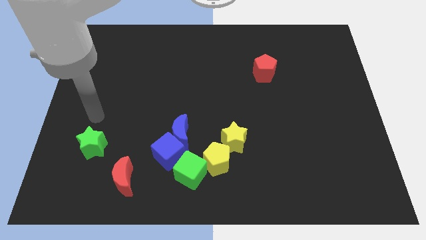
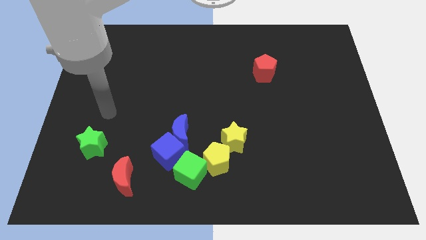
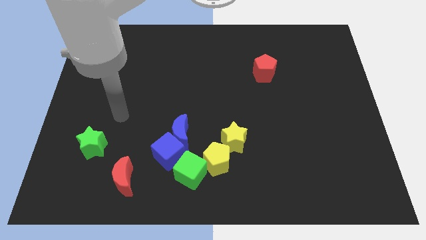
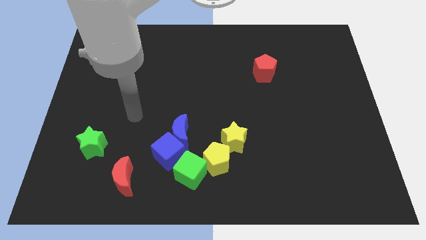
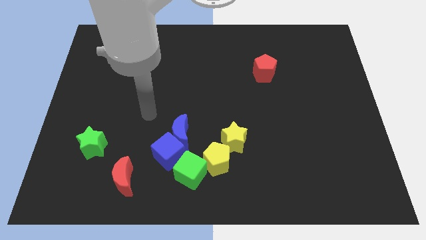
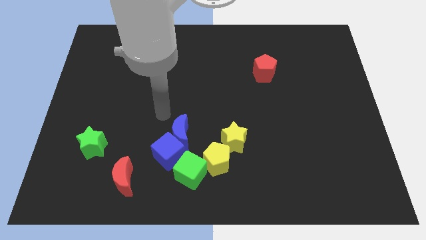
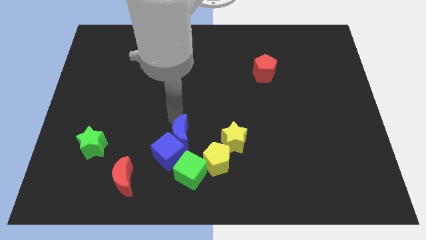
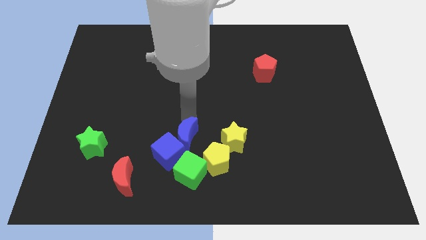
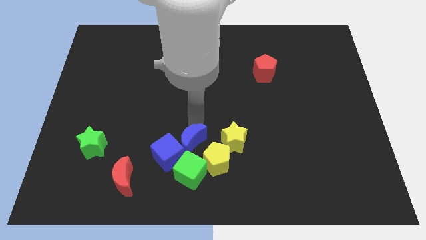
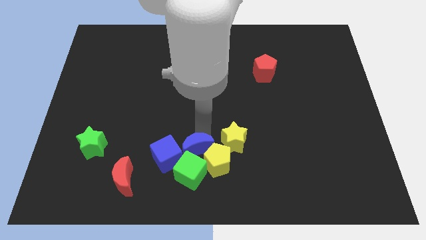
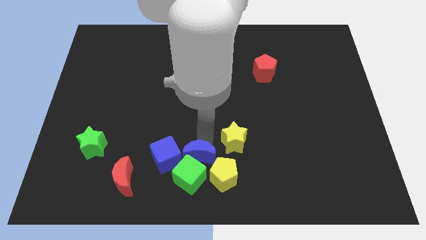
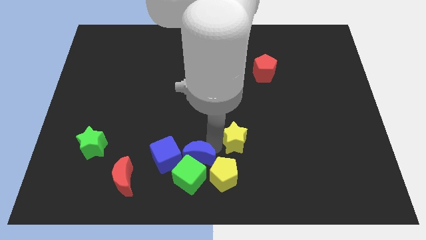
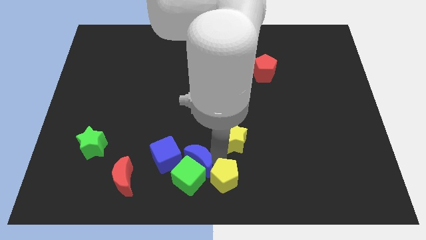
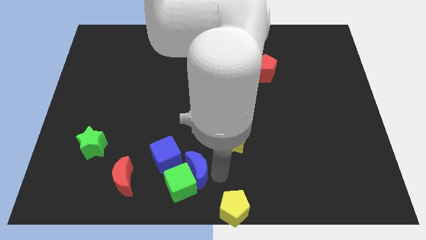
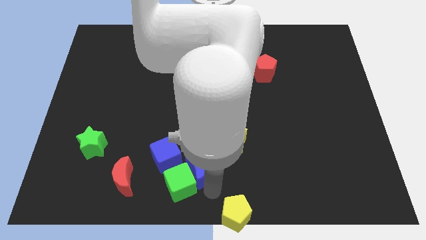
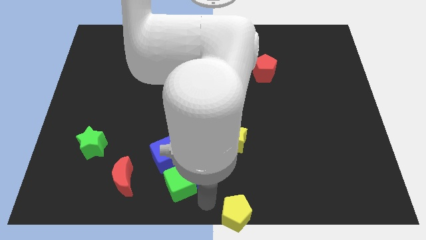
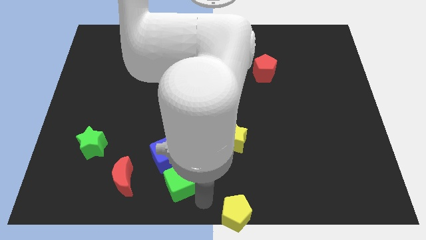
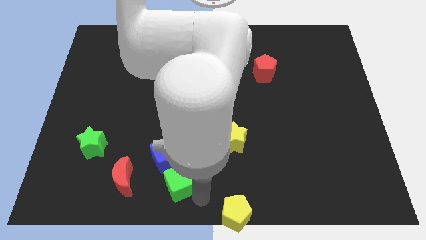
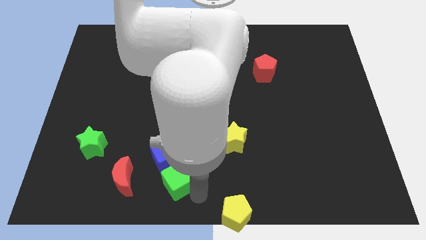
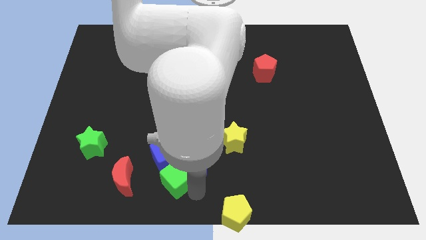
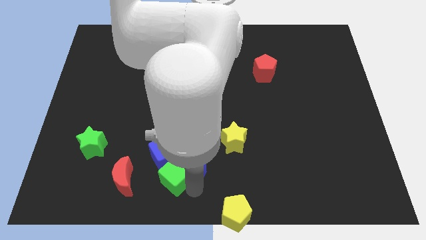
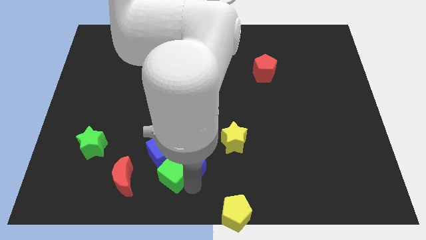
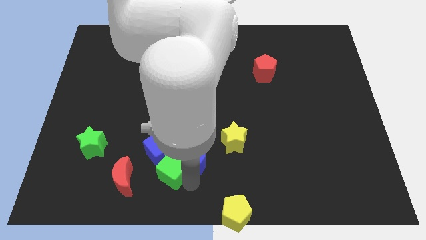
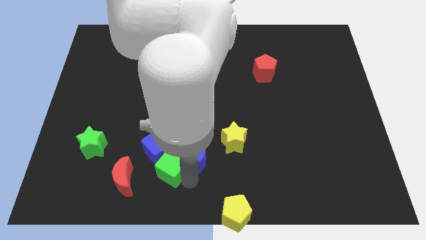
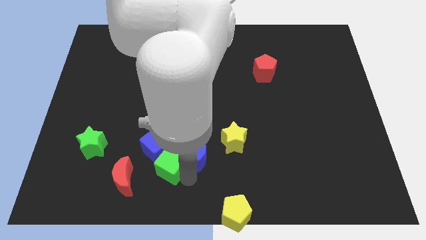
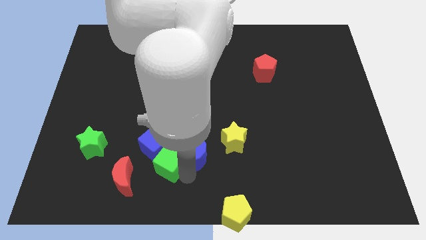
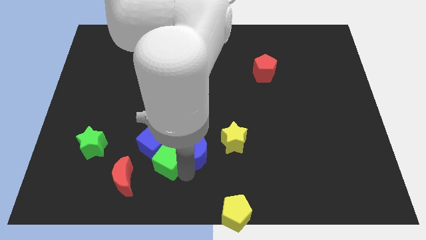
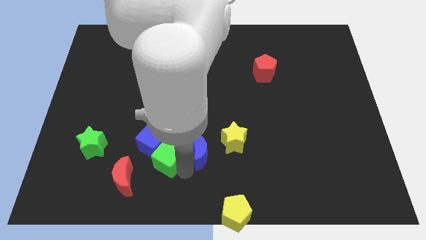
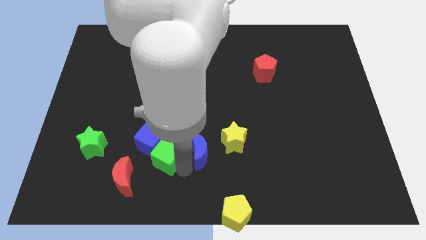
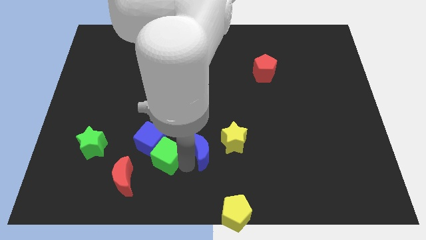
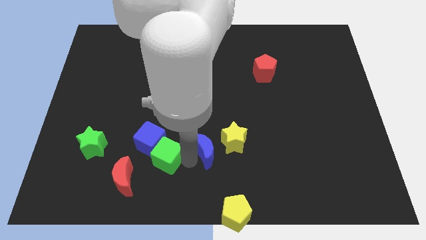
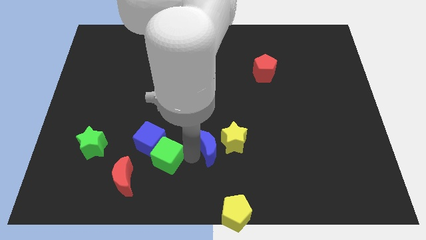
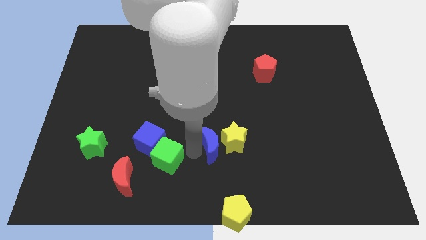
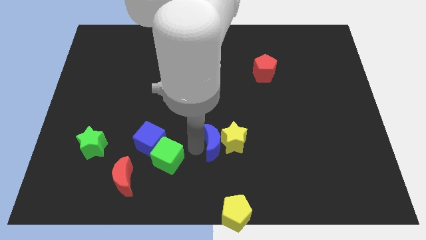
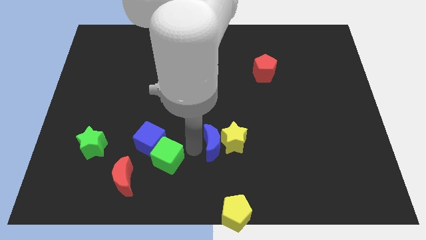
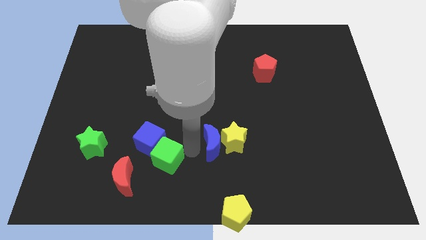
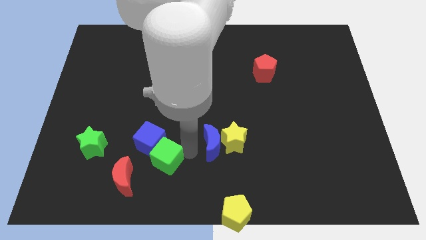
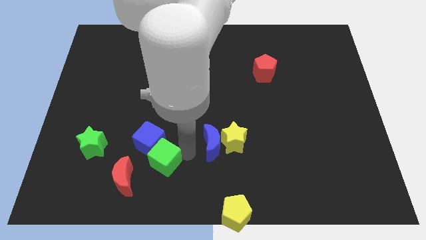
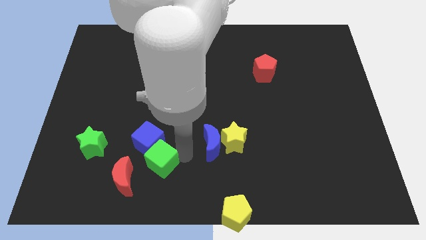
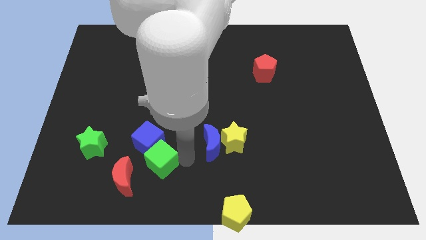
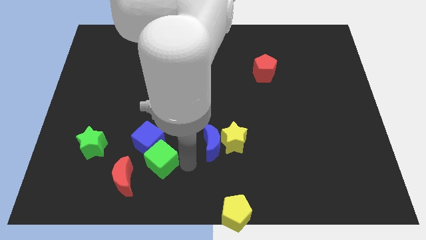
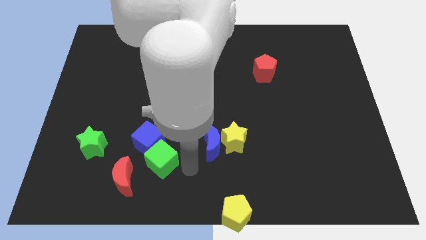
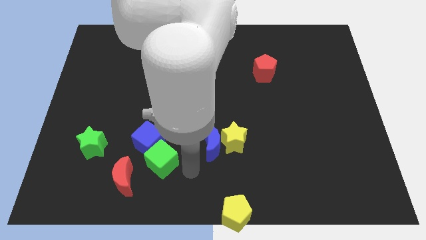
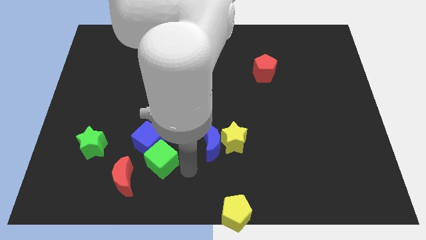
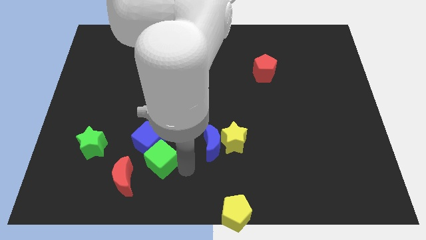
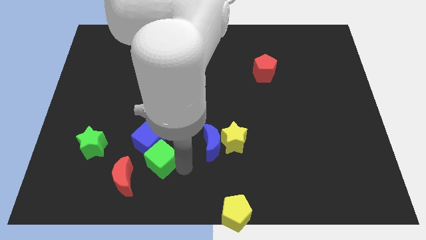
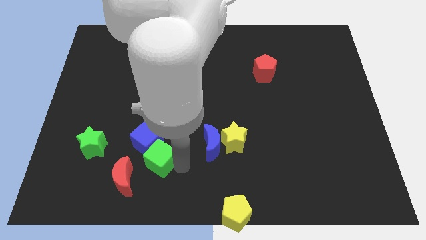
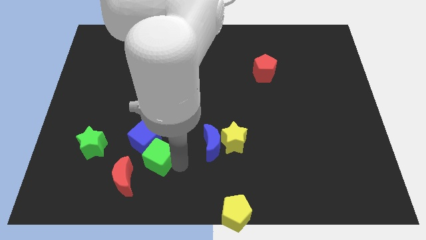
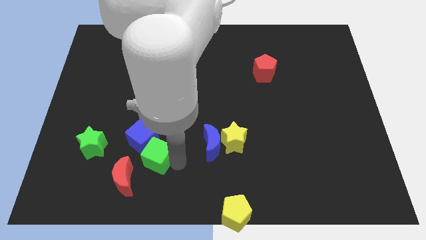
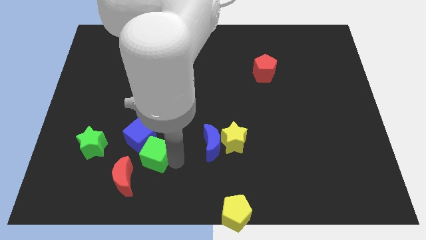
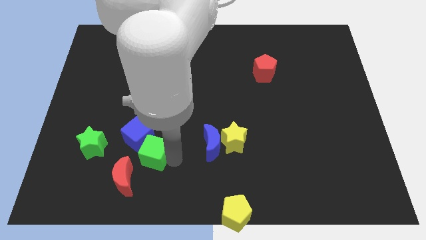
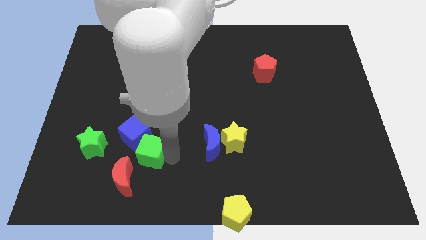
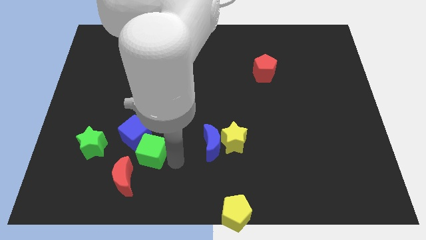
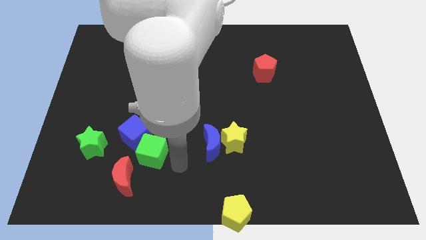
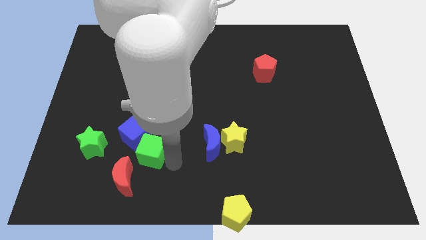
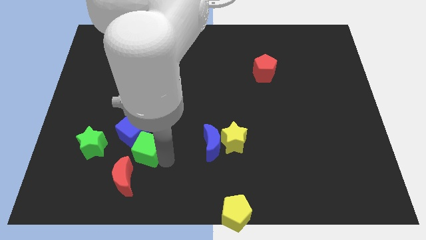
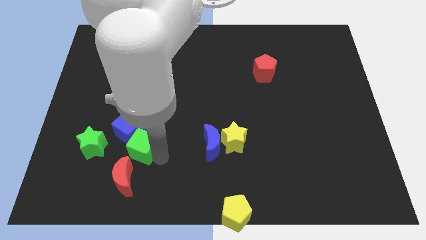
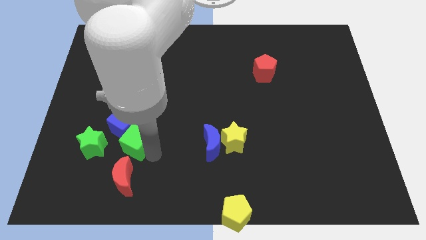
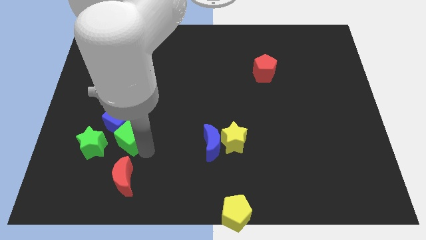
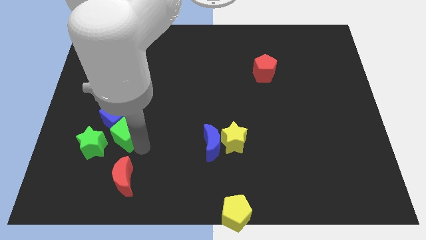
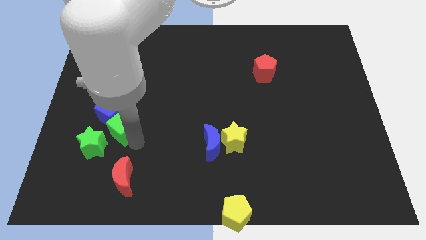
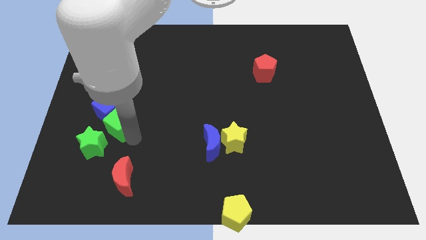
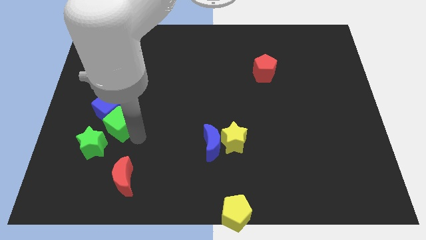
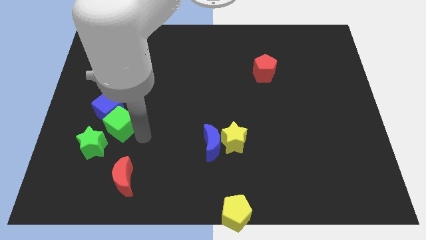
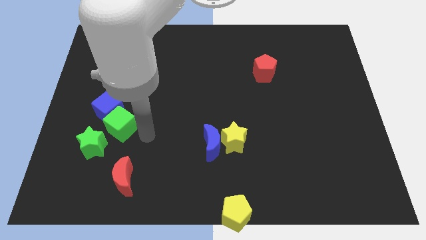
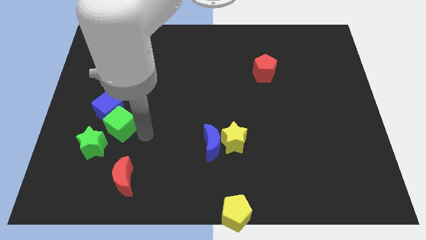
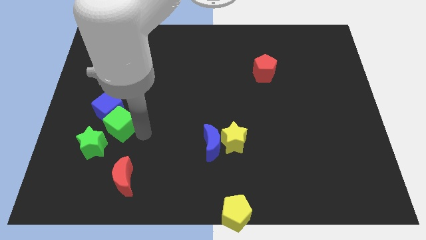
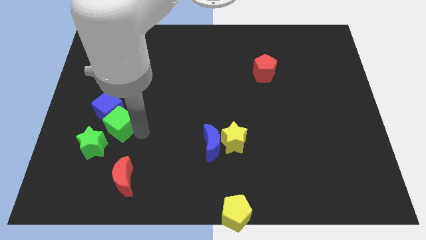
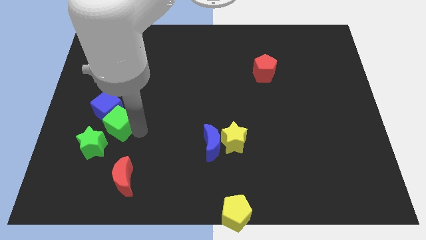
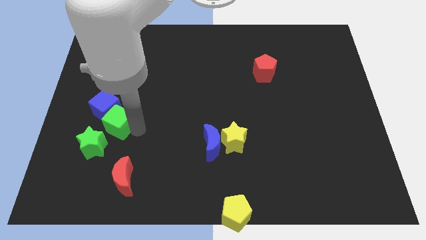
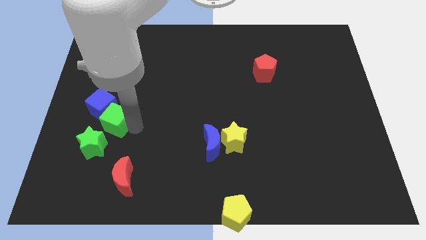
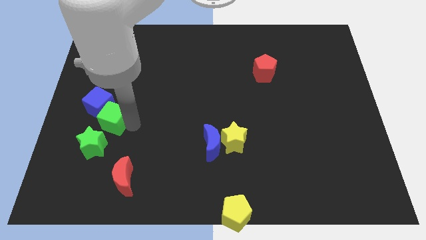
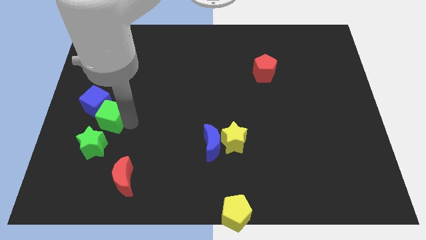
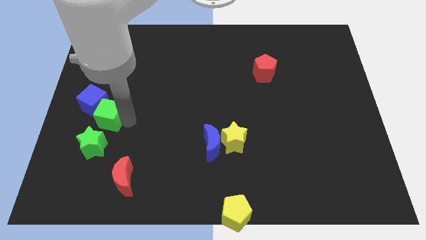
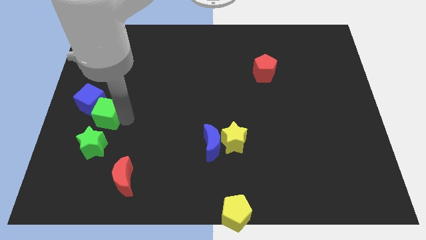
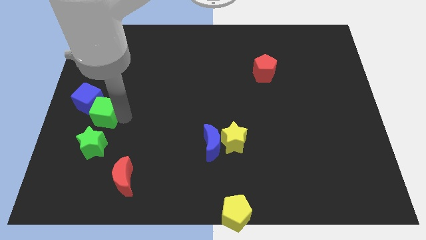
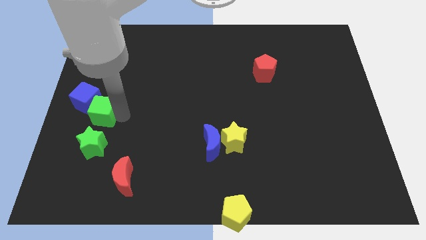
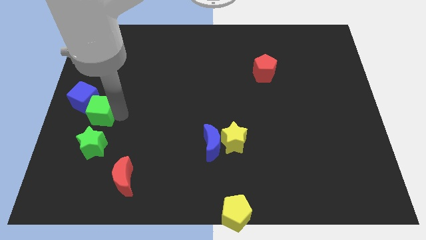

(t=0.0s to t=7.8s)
move the green cube to the left side of the board
